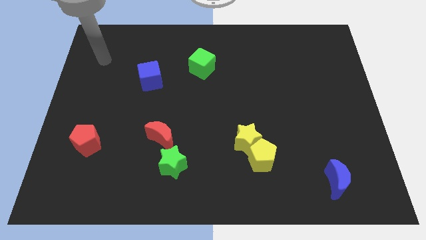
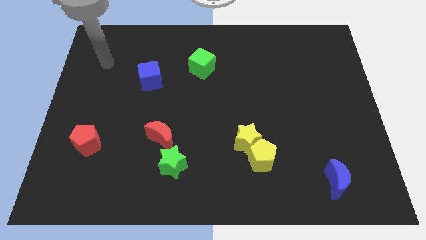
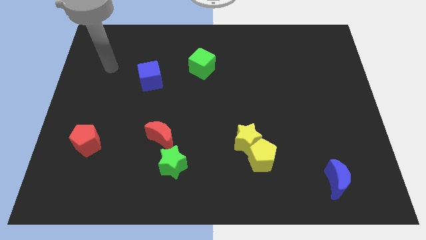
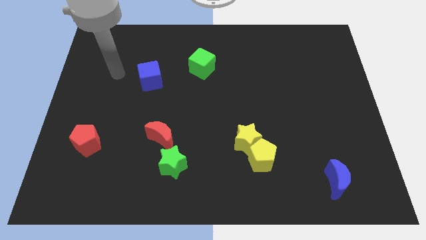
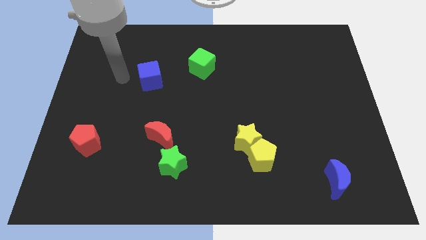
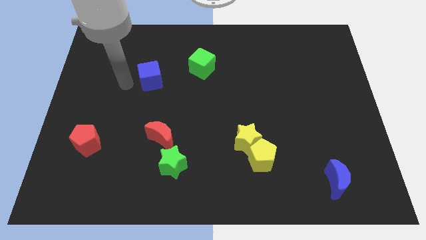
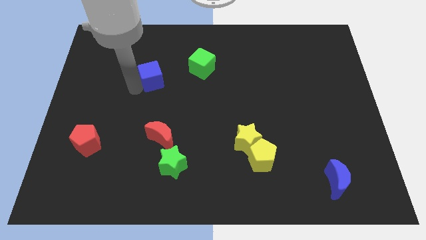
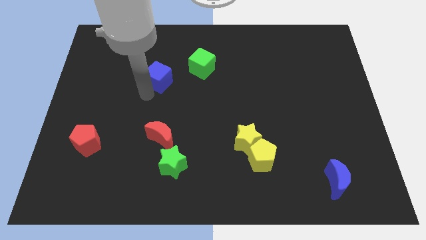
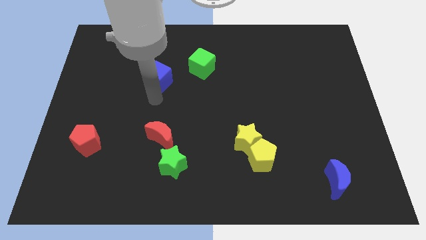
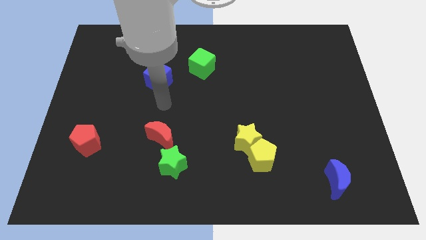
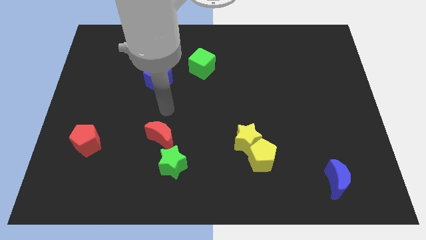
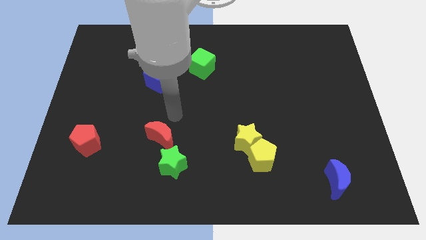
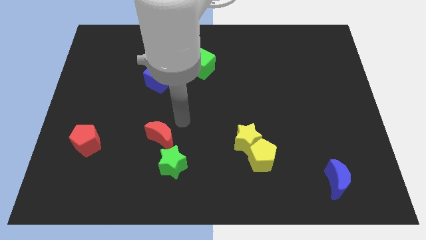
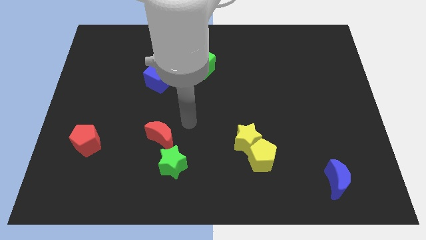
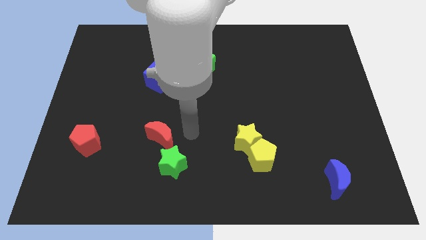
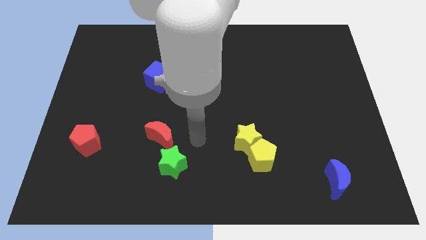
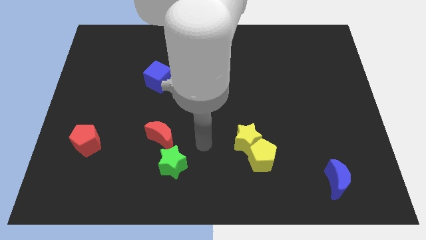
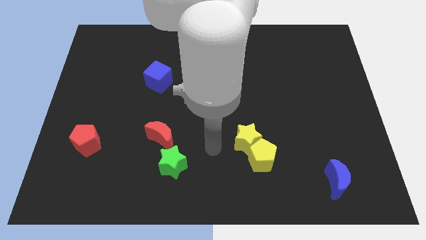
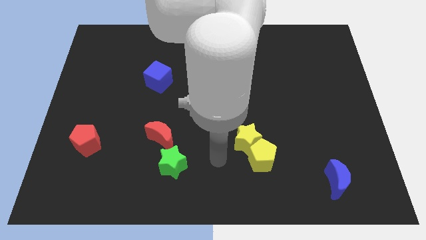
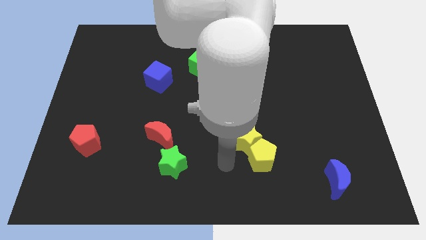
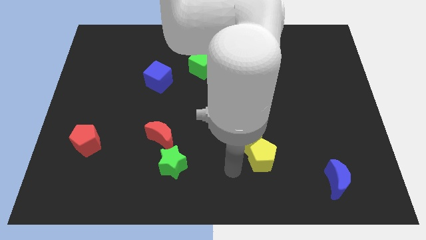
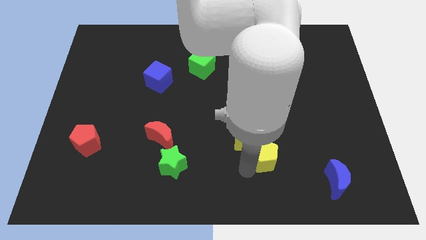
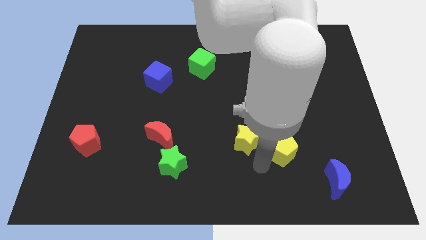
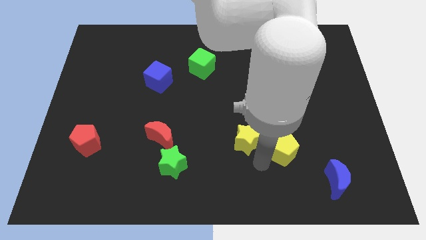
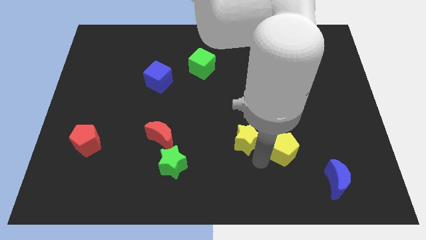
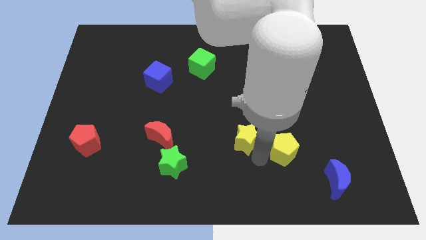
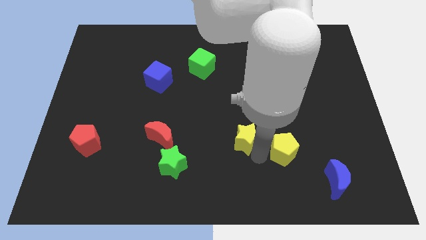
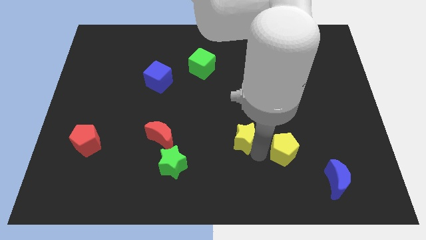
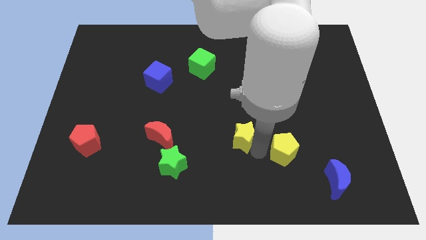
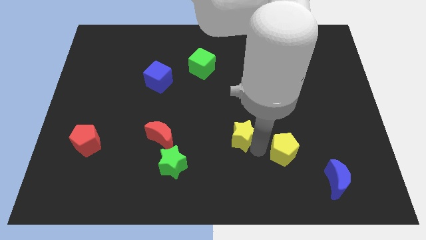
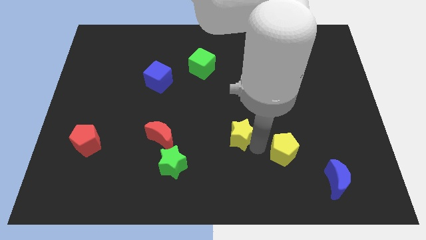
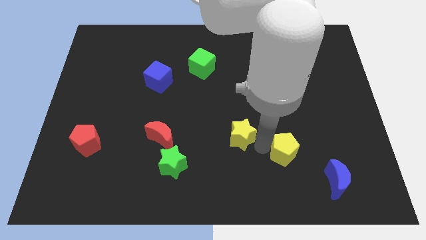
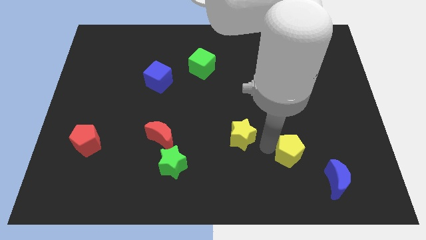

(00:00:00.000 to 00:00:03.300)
separate the yellow star from the yellow pentagon

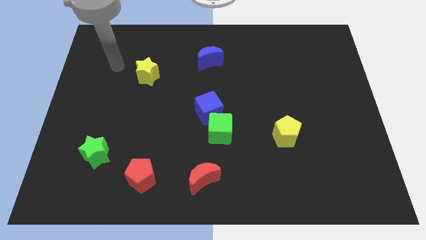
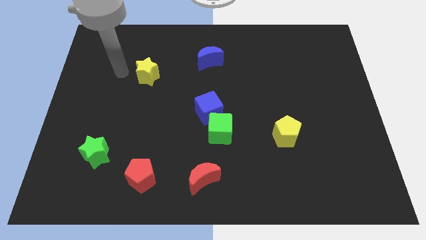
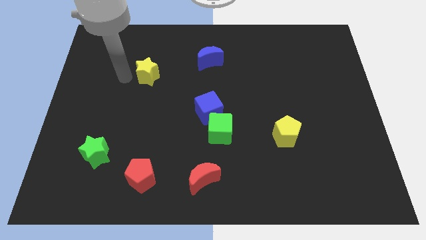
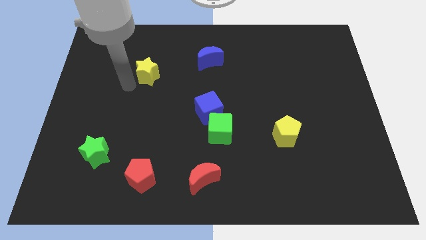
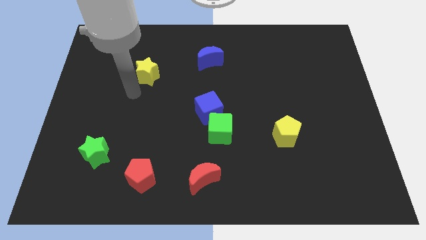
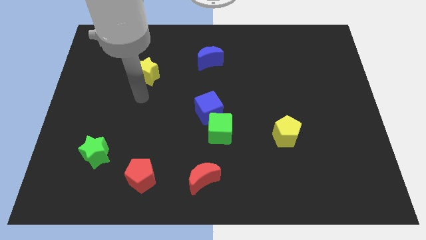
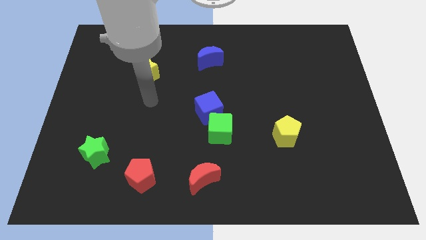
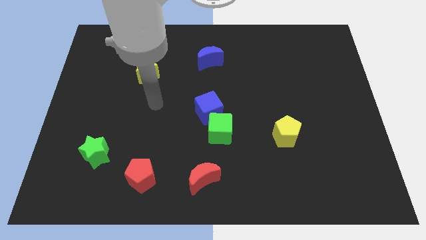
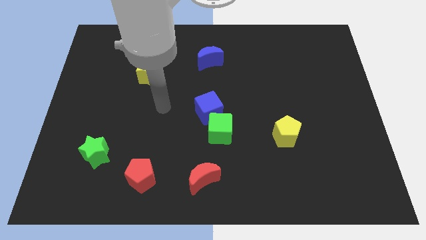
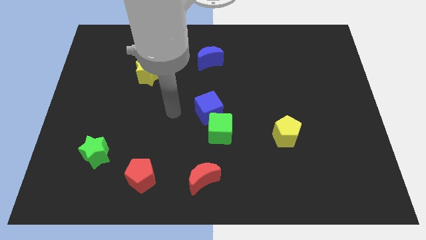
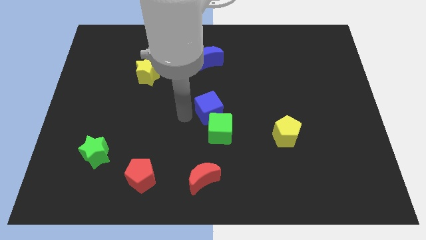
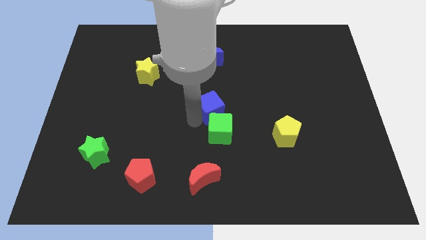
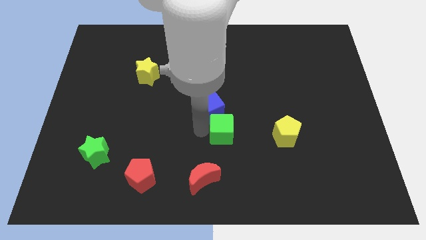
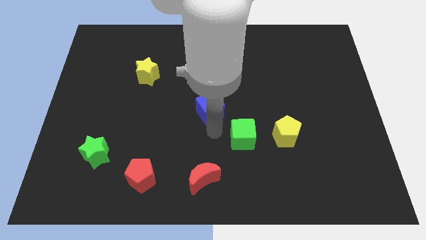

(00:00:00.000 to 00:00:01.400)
move the blue cube away from the green cube

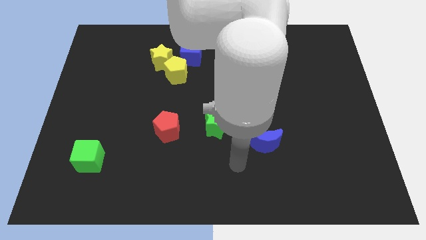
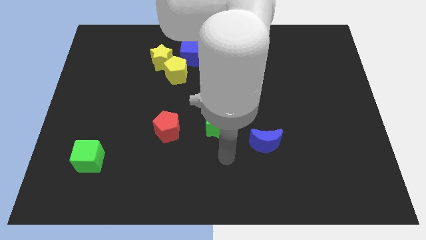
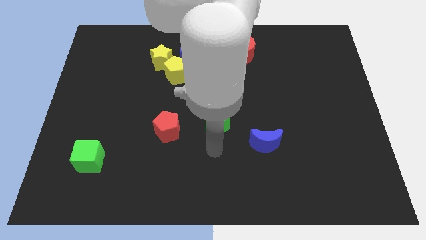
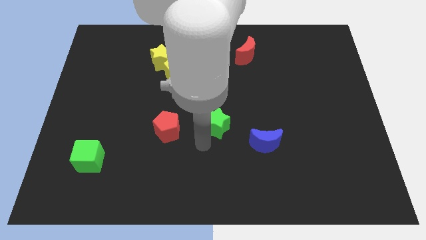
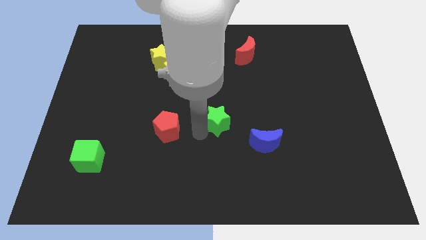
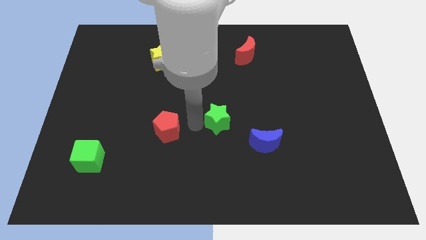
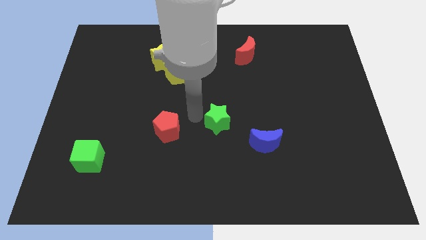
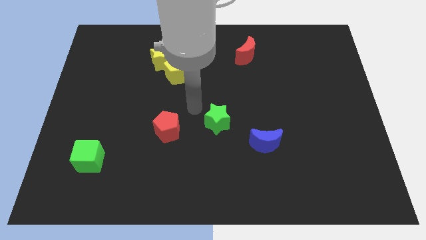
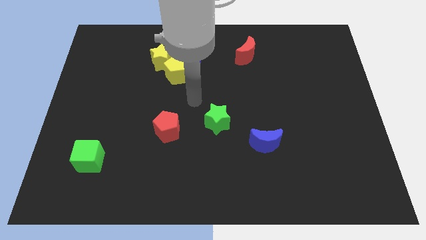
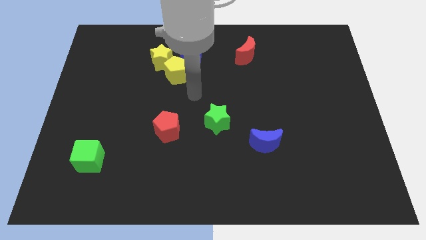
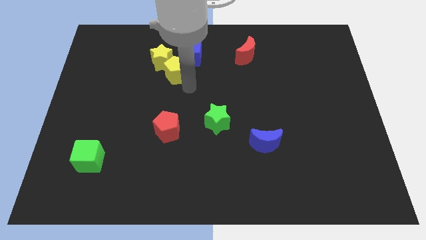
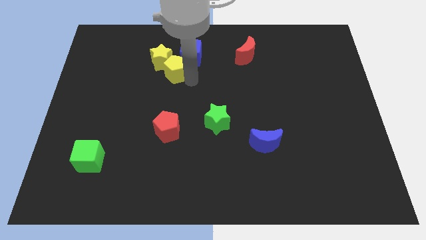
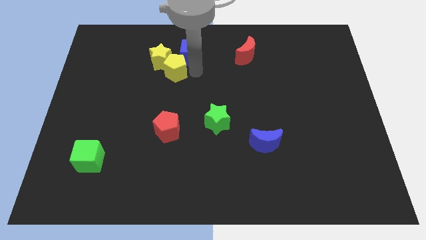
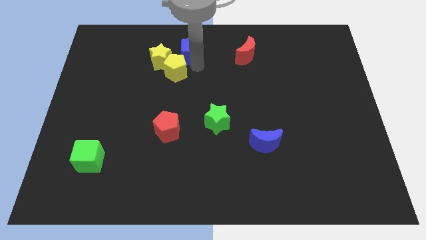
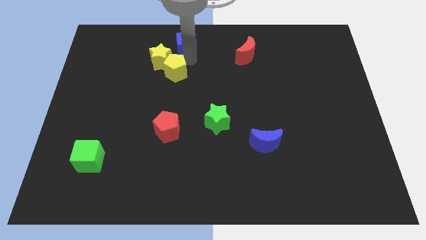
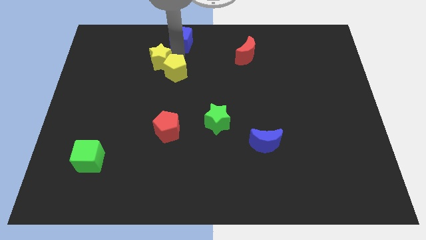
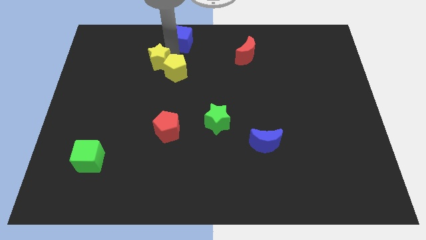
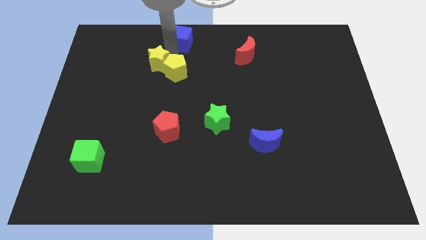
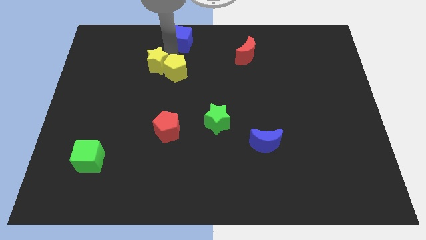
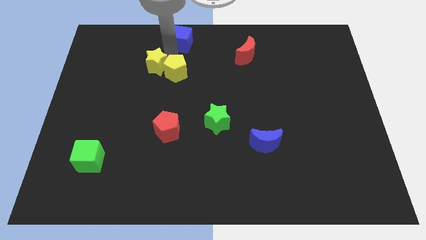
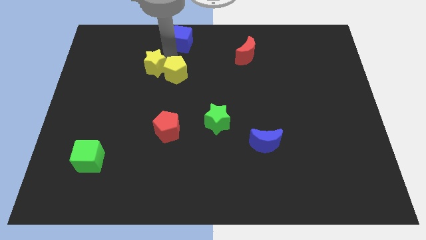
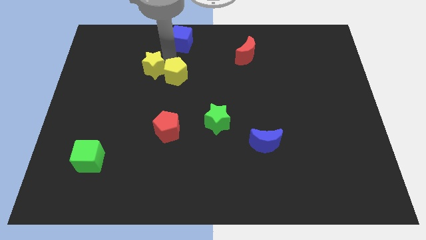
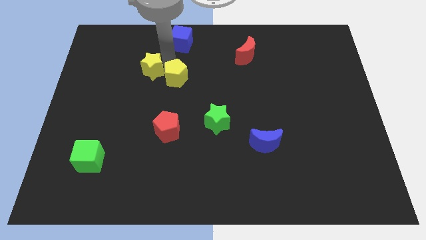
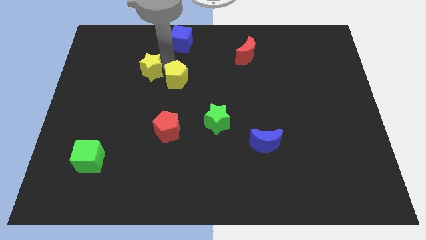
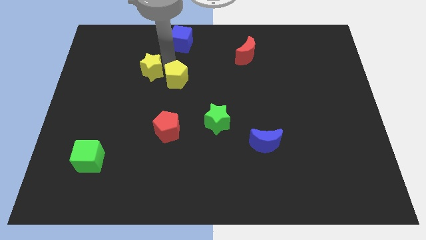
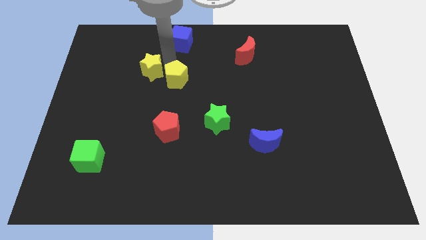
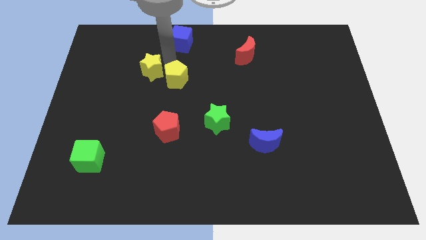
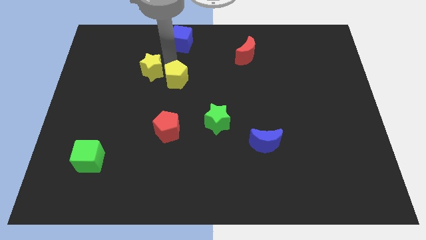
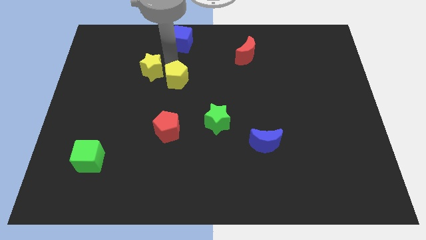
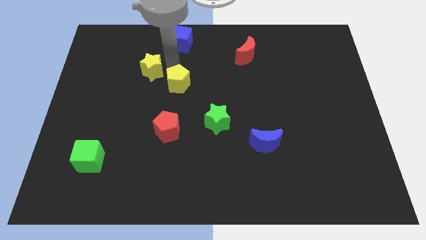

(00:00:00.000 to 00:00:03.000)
separate the yellow pentagon from the yellow star and blue cube

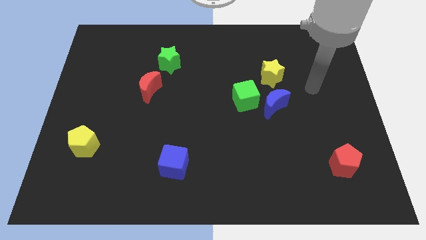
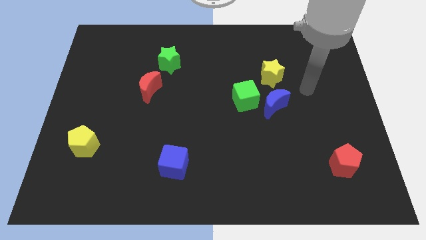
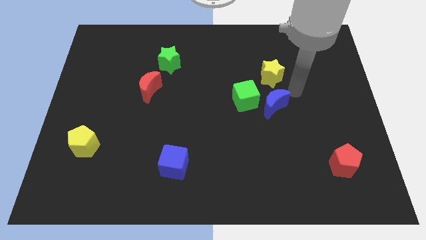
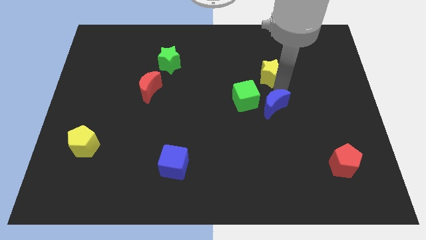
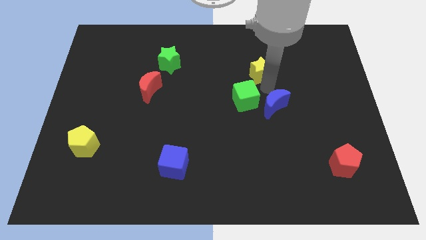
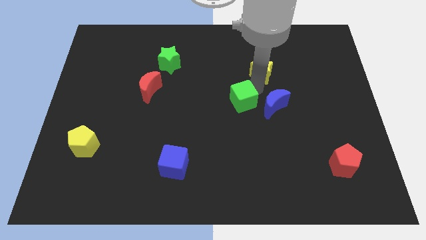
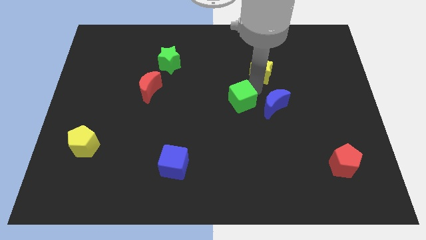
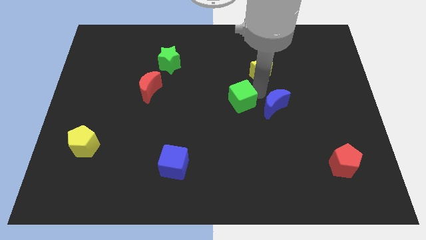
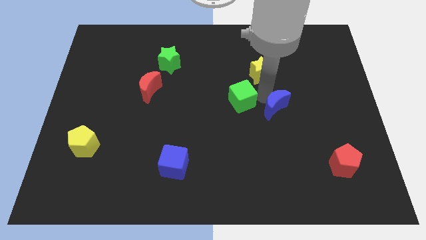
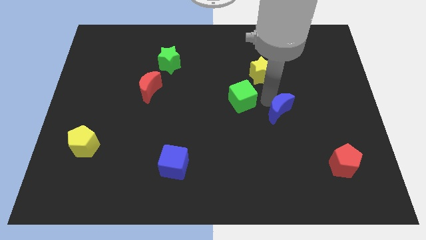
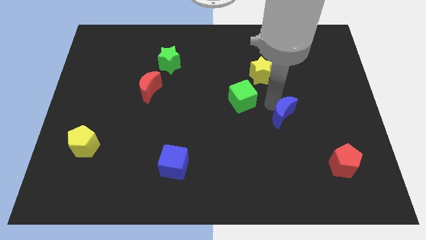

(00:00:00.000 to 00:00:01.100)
move the blue moon away from the green cube and yellow star

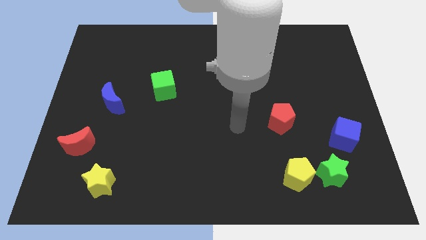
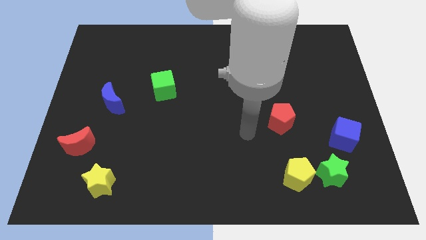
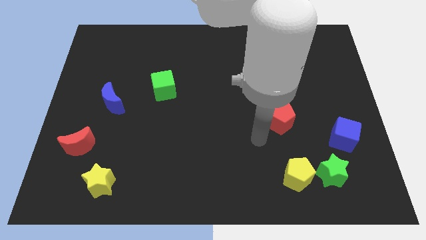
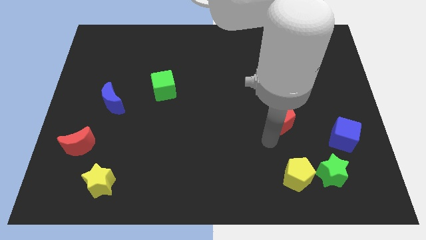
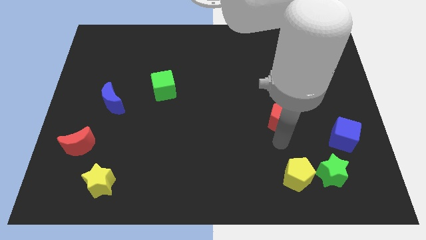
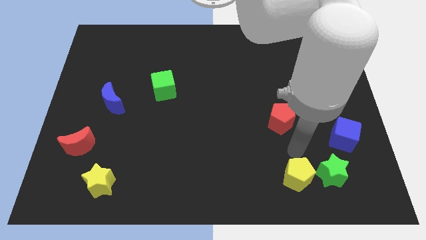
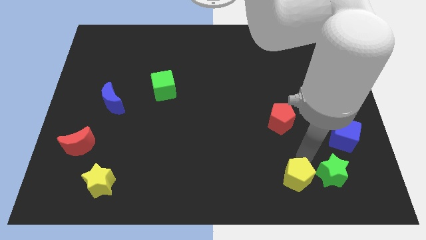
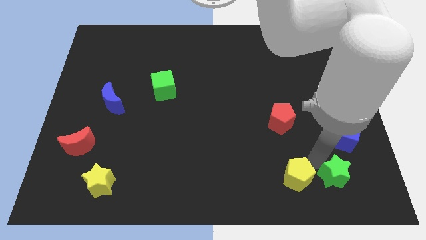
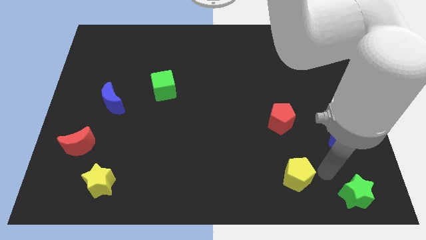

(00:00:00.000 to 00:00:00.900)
move the yellow pentagon away from the green star
